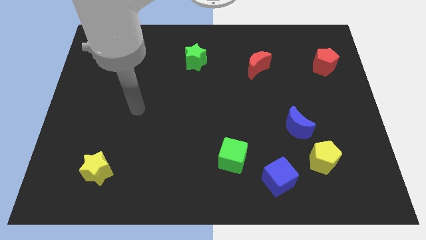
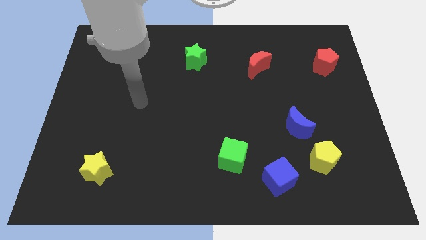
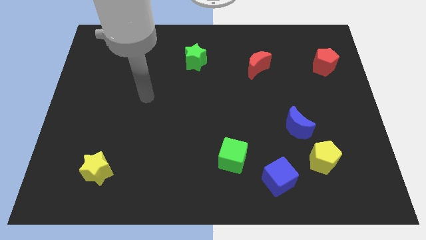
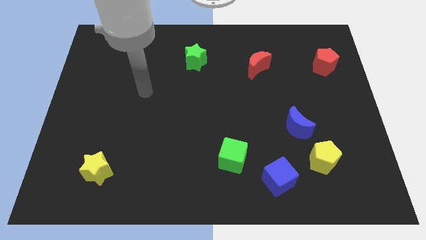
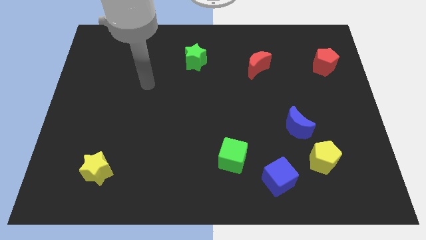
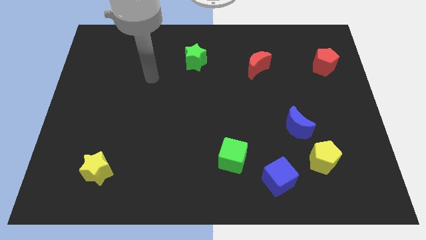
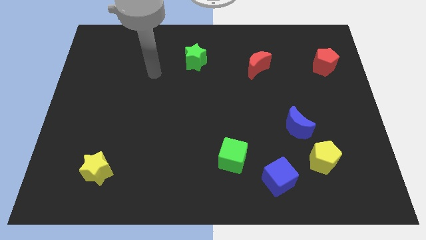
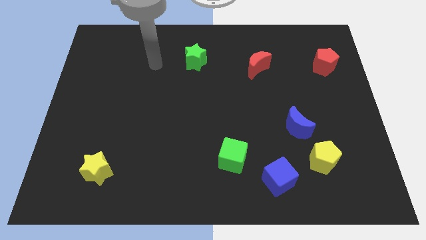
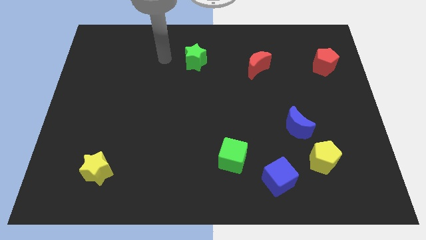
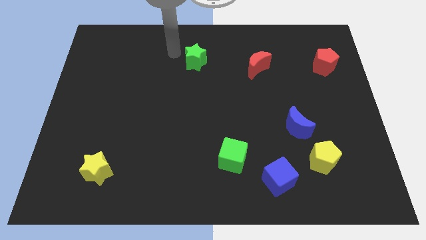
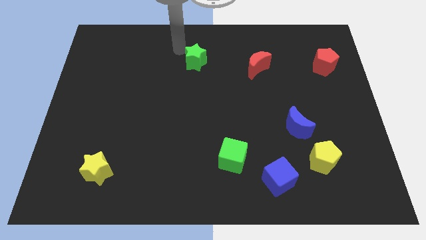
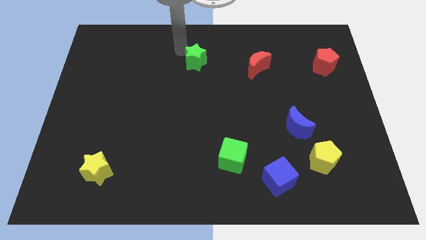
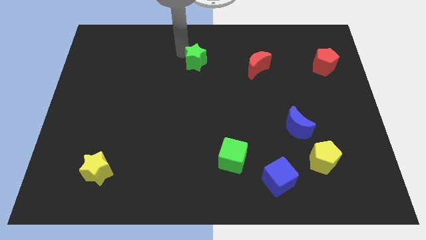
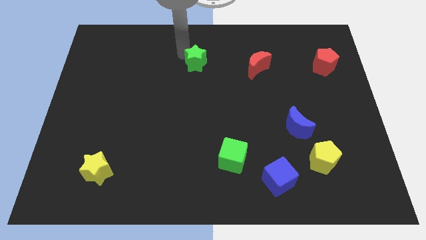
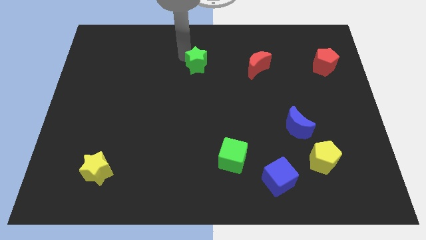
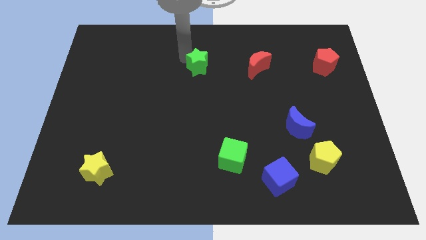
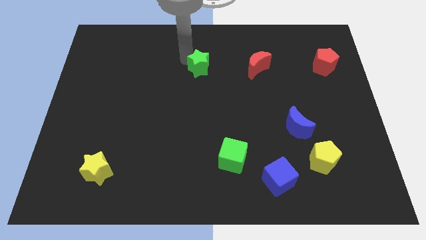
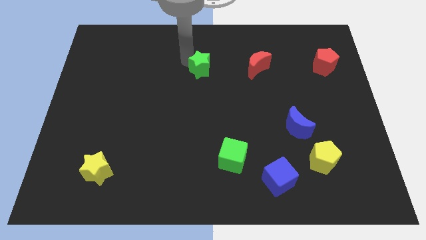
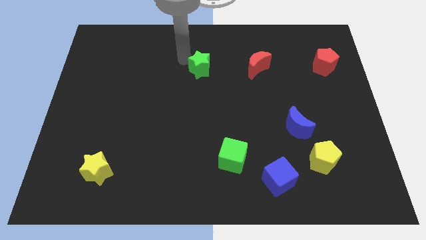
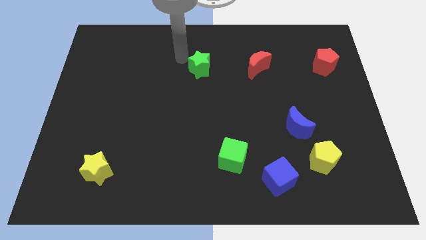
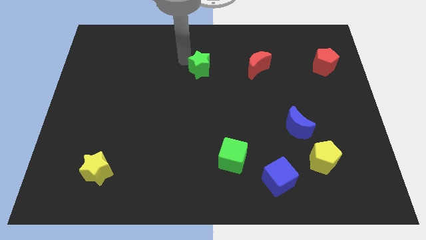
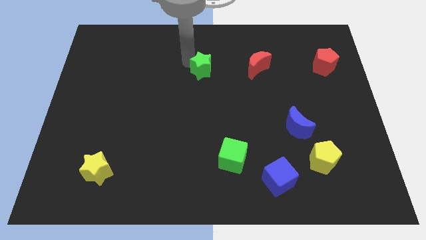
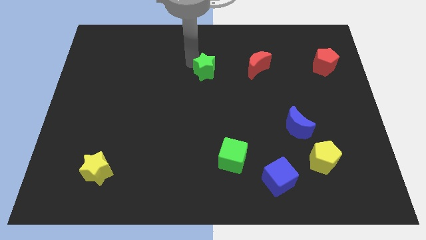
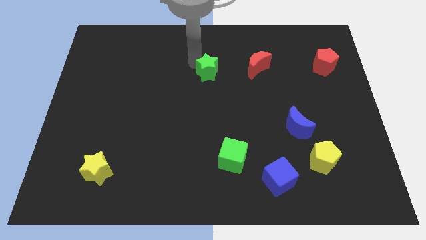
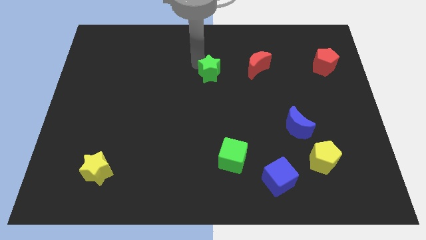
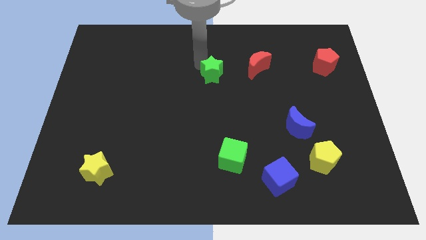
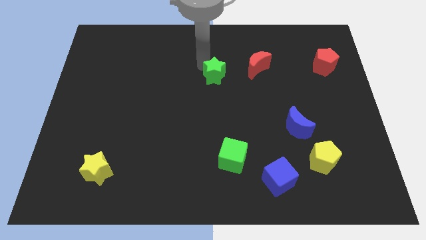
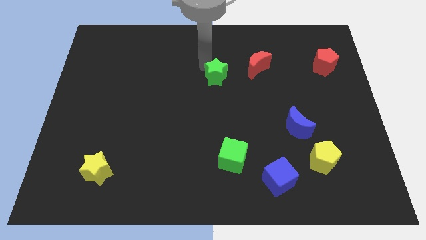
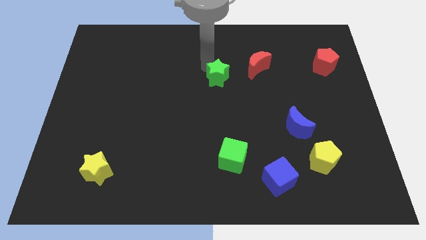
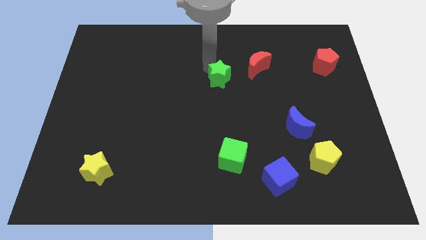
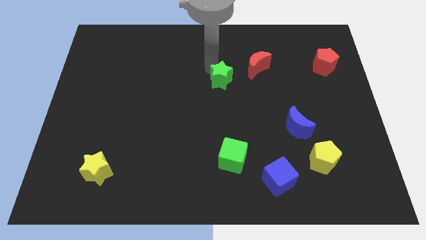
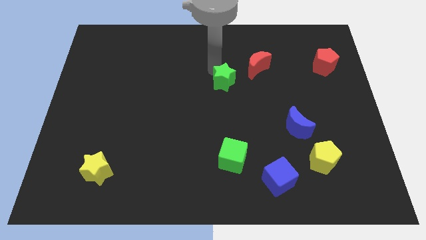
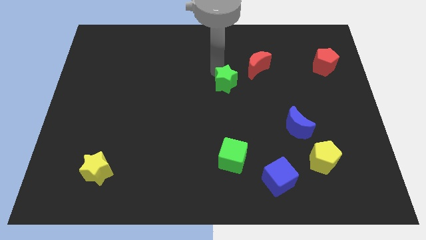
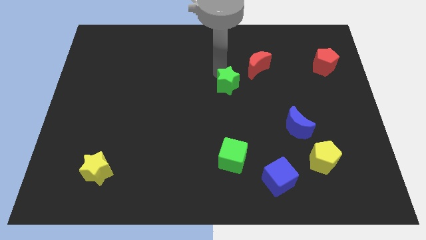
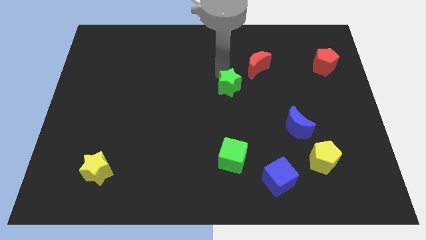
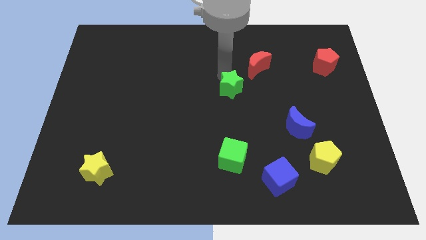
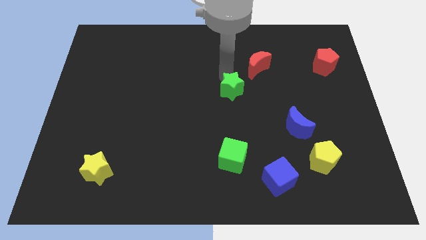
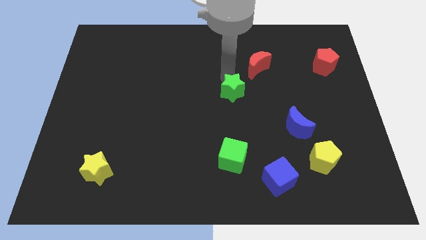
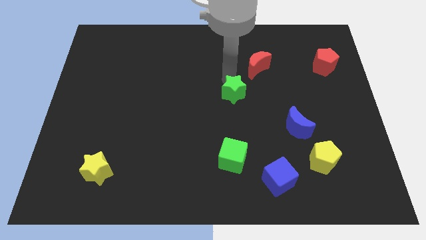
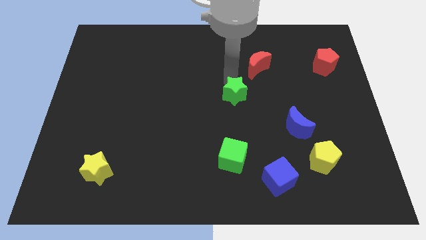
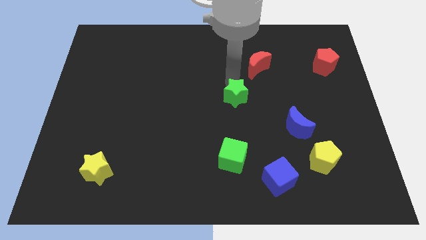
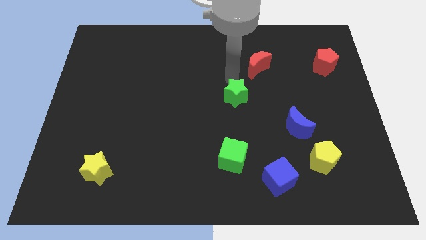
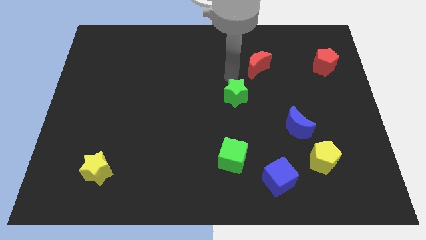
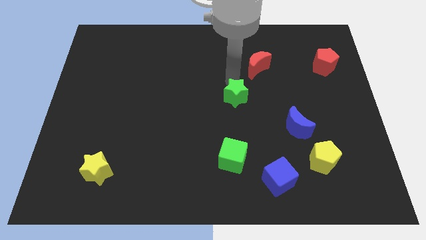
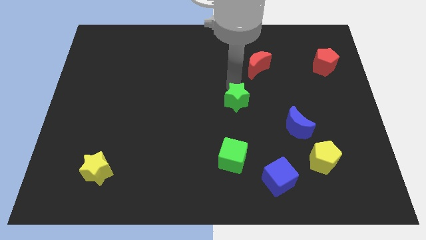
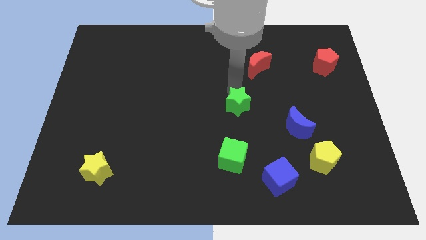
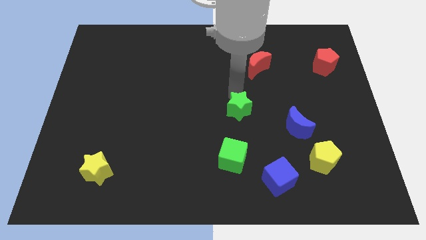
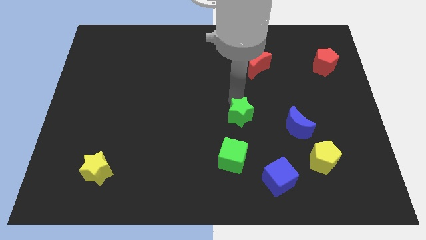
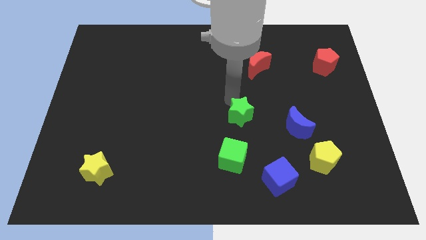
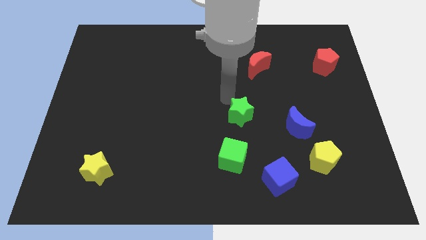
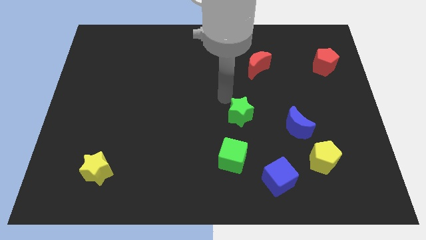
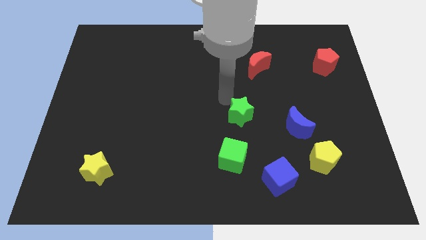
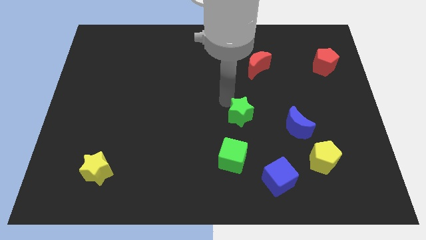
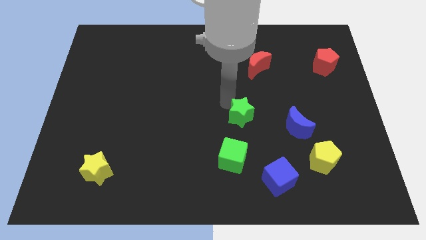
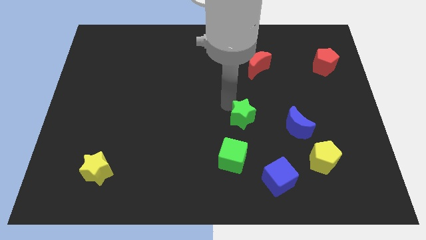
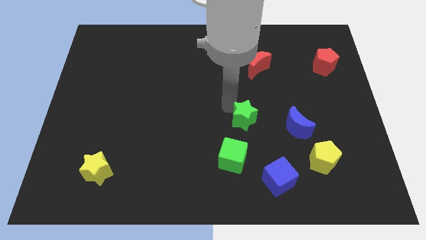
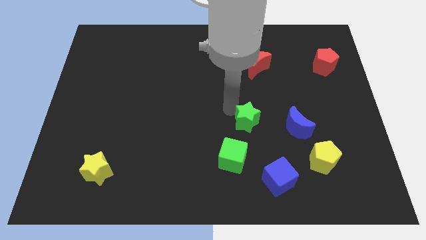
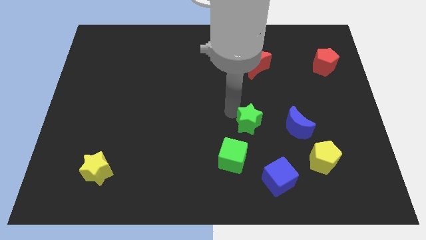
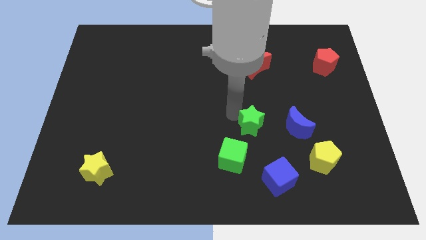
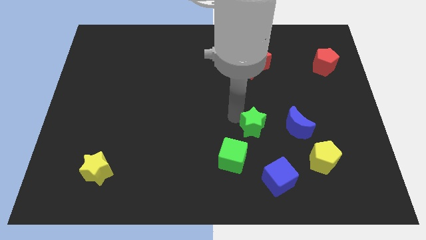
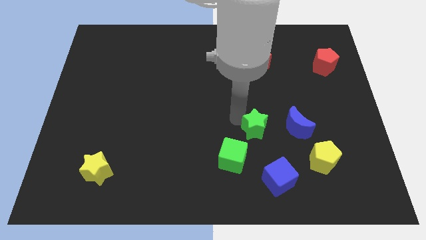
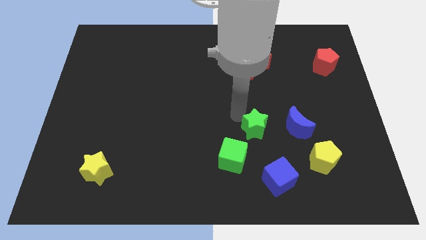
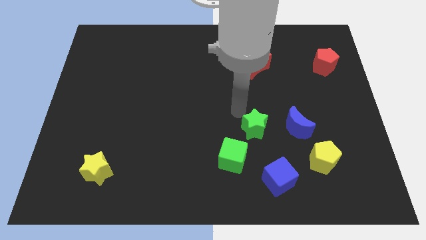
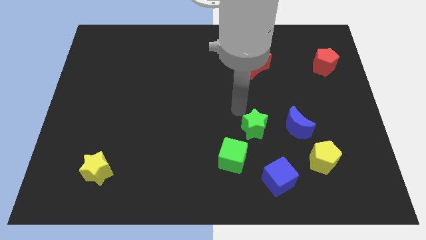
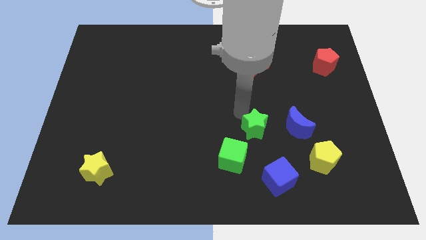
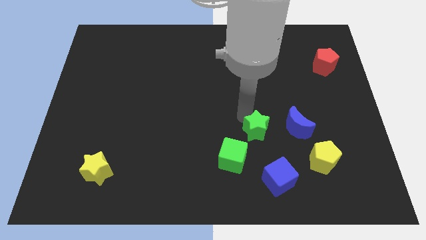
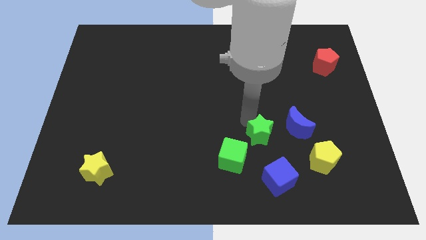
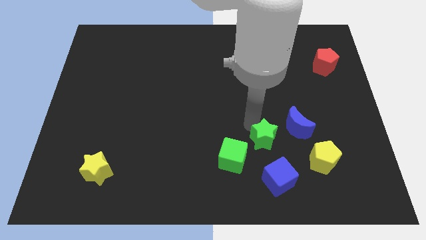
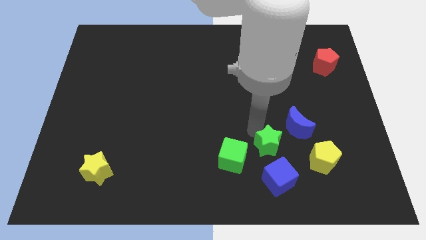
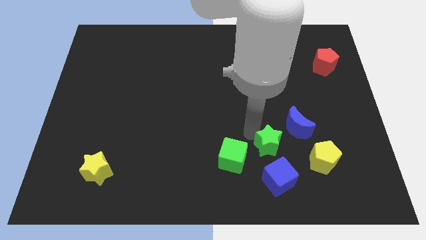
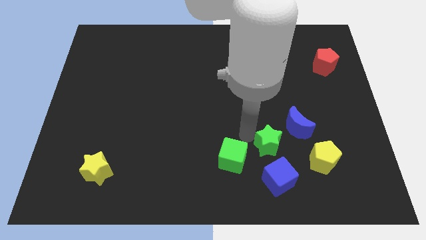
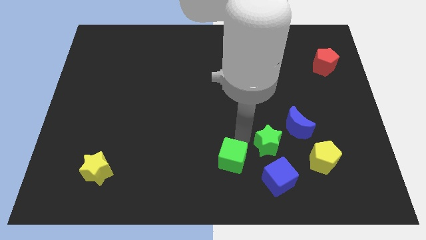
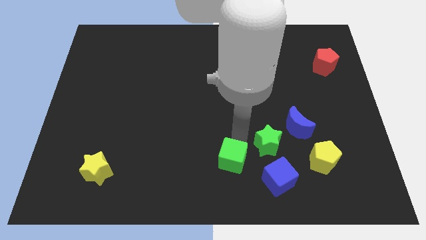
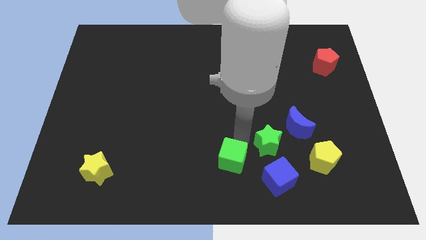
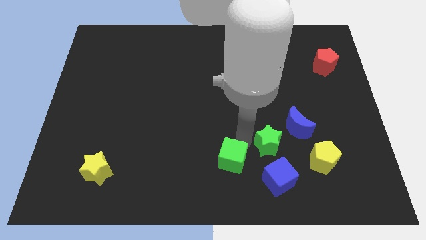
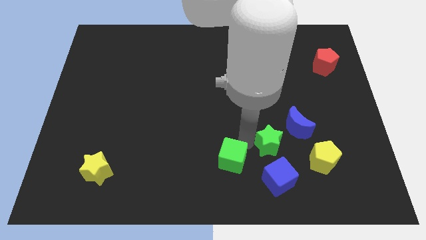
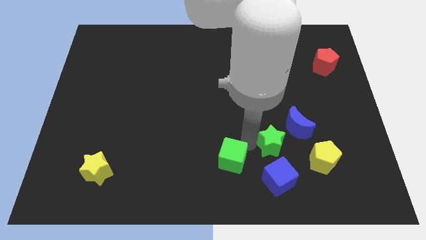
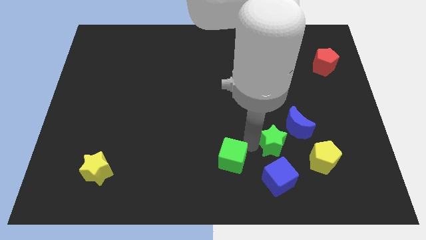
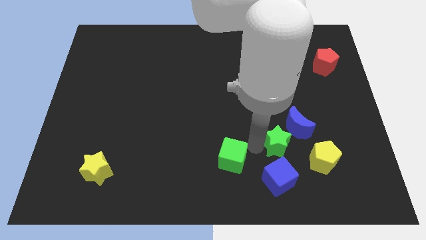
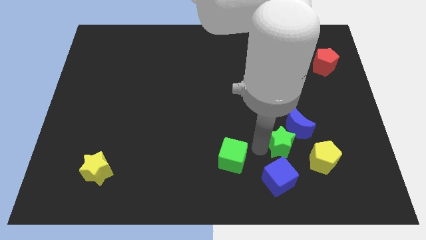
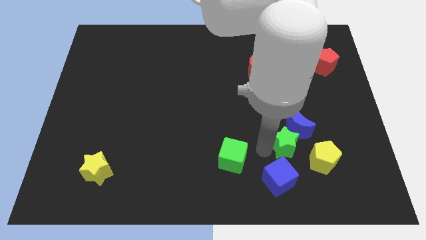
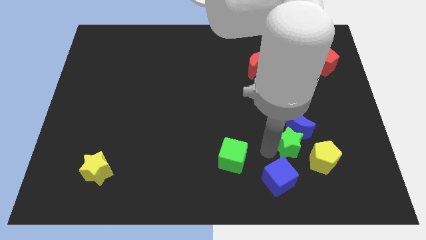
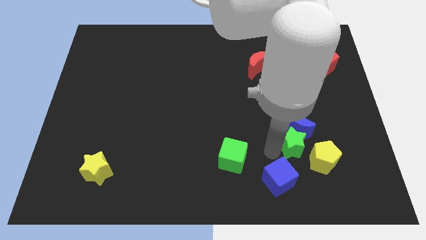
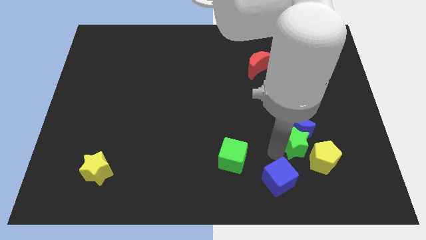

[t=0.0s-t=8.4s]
move the green star close to the yellow pentagon
